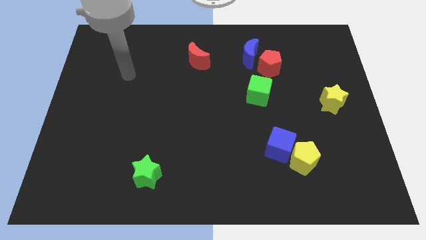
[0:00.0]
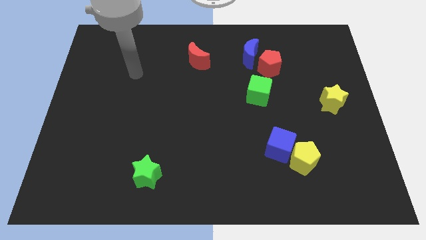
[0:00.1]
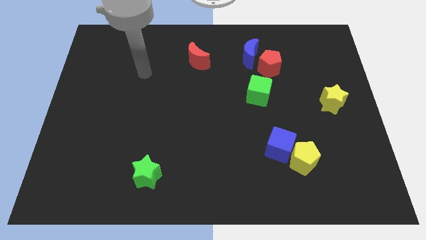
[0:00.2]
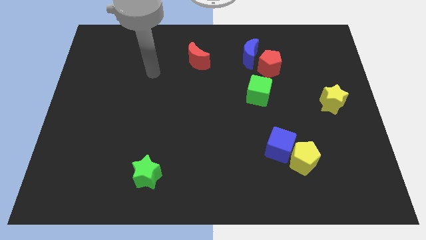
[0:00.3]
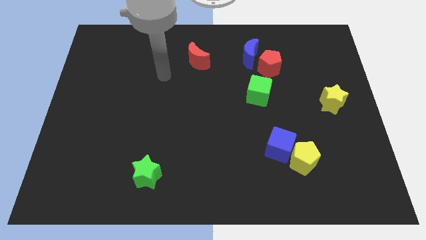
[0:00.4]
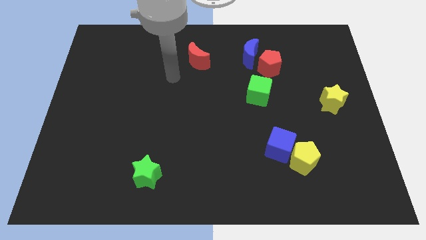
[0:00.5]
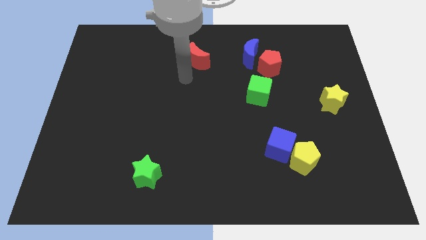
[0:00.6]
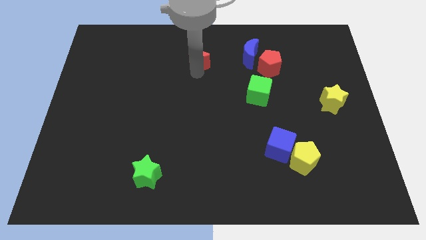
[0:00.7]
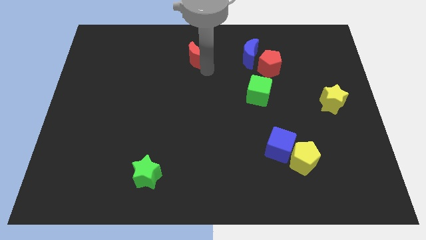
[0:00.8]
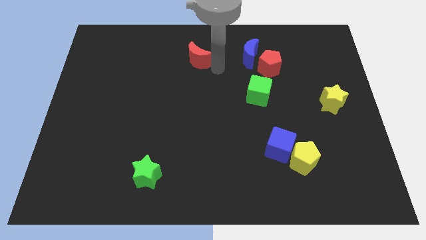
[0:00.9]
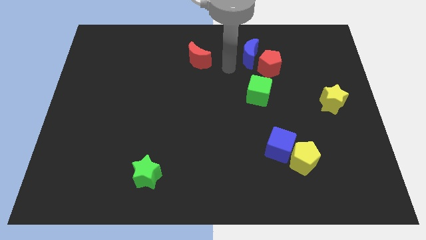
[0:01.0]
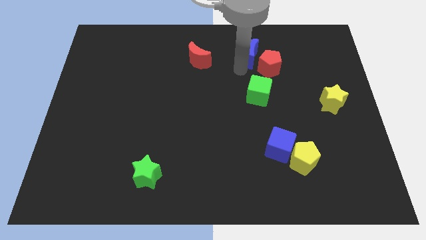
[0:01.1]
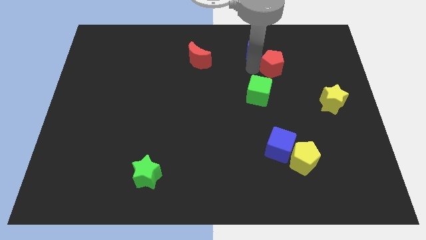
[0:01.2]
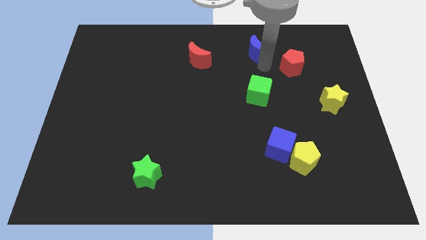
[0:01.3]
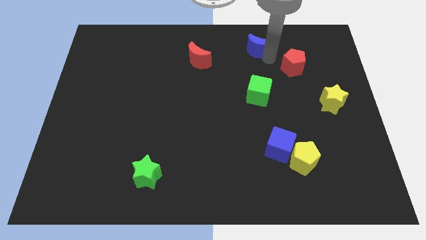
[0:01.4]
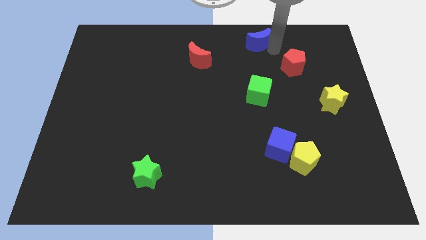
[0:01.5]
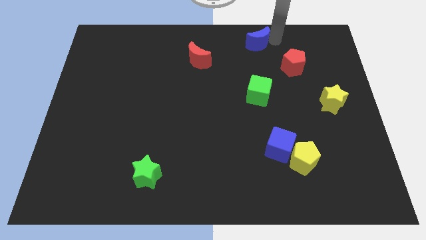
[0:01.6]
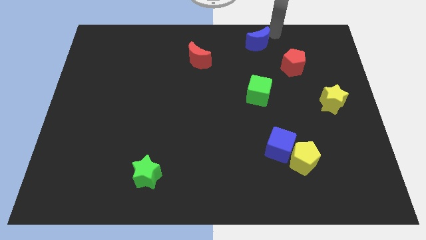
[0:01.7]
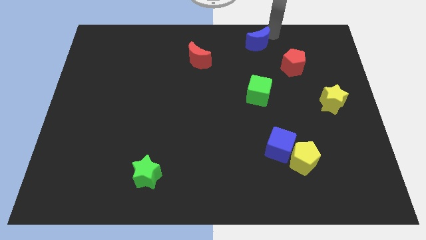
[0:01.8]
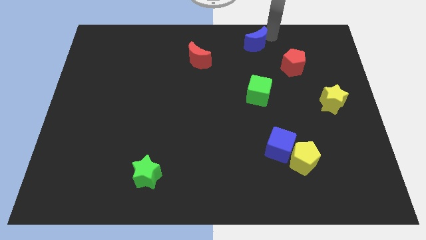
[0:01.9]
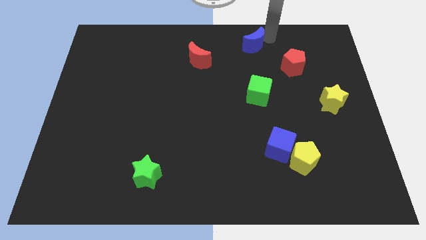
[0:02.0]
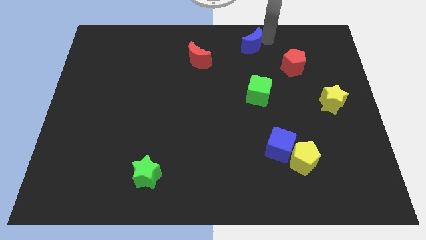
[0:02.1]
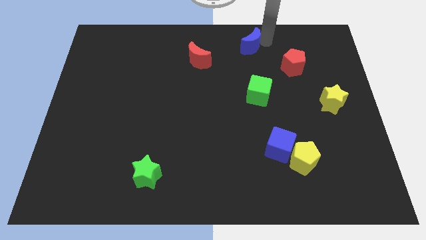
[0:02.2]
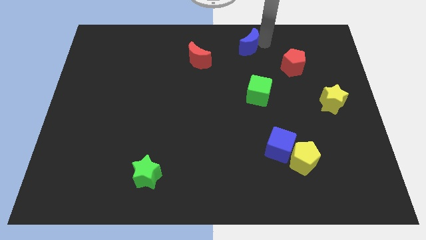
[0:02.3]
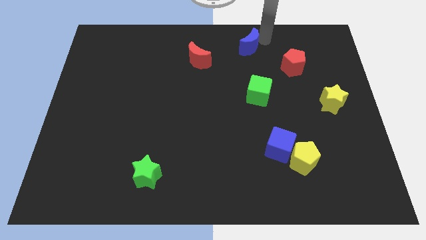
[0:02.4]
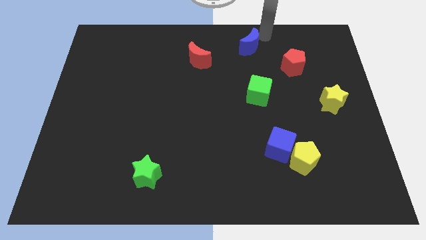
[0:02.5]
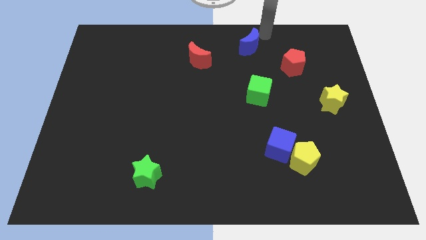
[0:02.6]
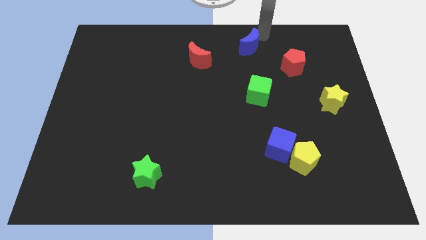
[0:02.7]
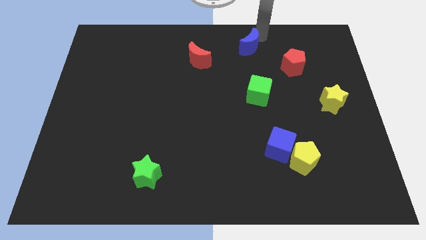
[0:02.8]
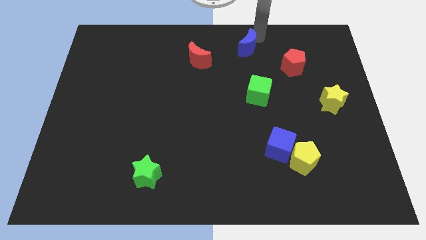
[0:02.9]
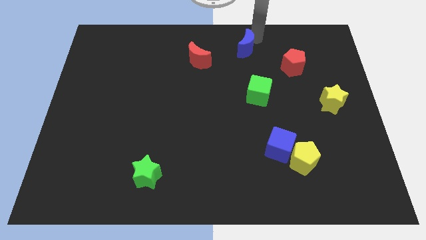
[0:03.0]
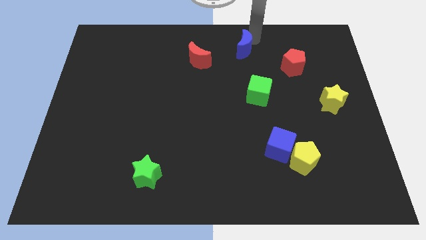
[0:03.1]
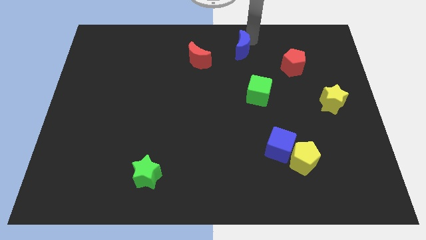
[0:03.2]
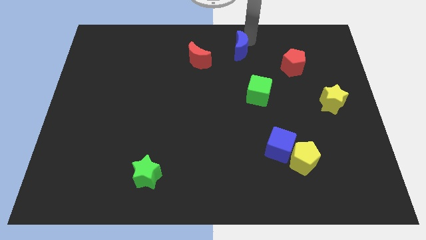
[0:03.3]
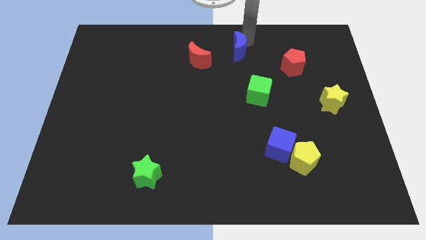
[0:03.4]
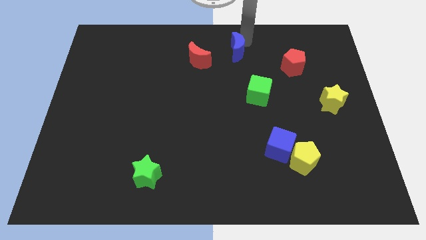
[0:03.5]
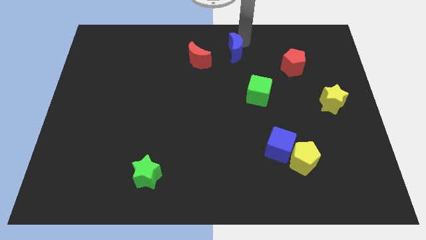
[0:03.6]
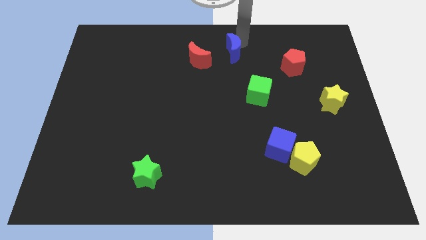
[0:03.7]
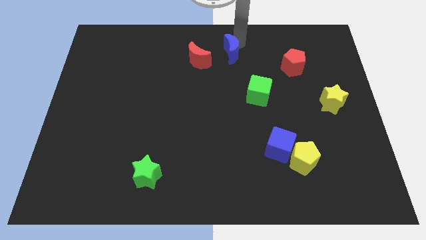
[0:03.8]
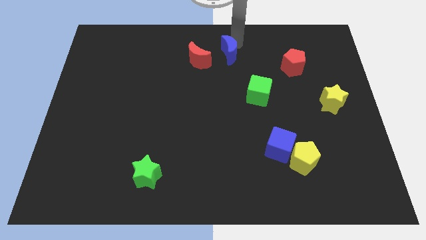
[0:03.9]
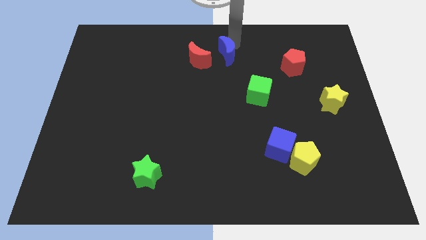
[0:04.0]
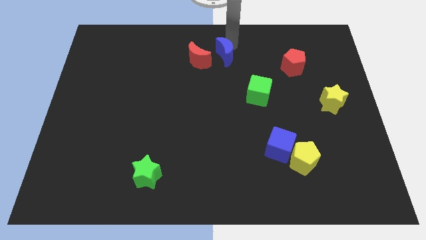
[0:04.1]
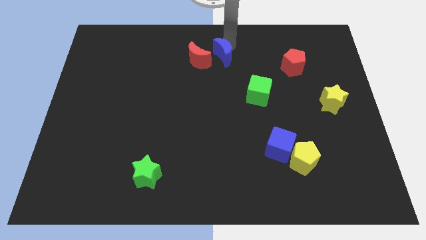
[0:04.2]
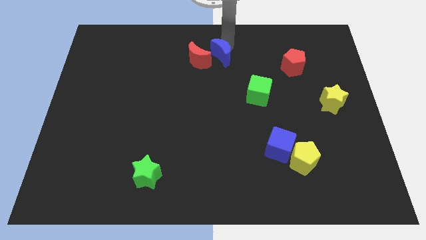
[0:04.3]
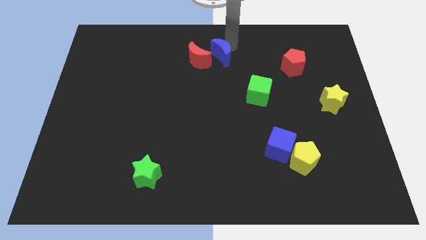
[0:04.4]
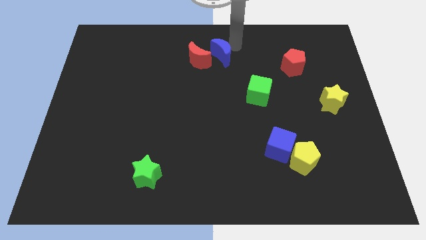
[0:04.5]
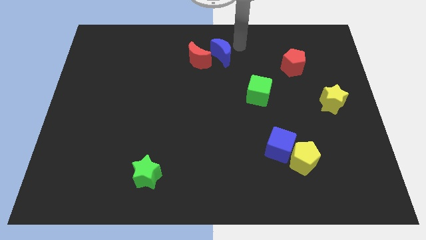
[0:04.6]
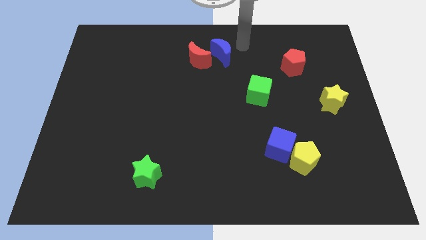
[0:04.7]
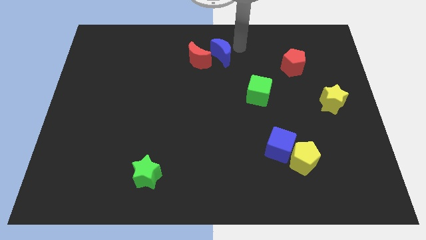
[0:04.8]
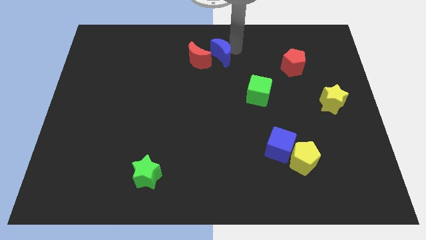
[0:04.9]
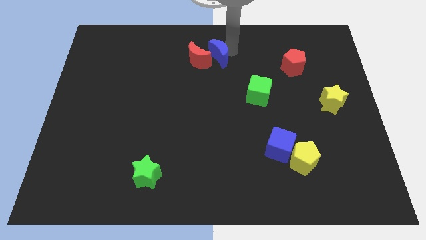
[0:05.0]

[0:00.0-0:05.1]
push the blue moon close to the red moon

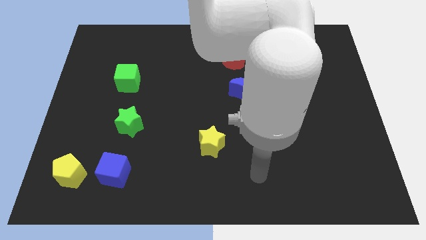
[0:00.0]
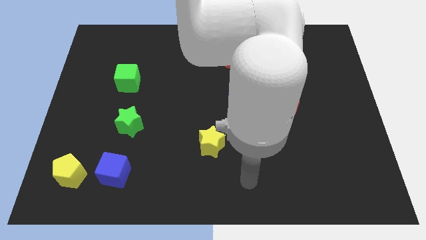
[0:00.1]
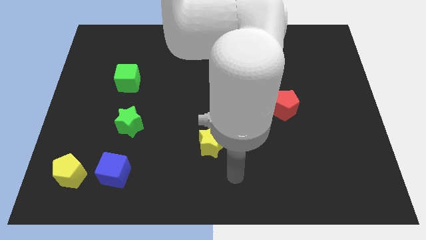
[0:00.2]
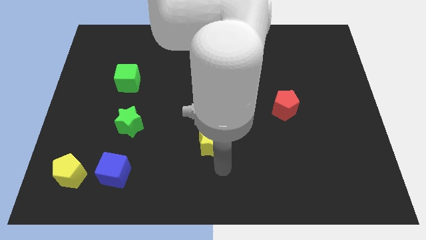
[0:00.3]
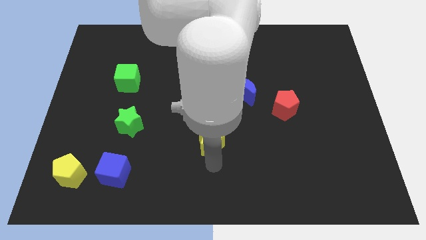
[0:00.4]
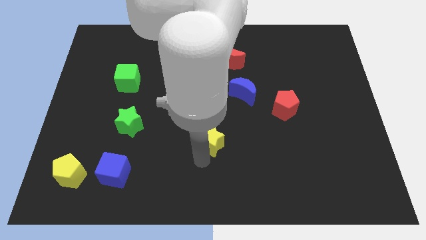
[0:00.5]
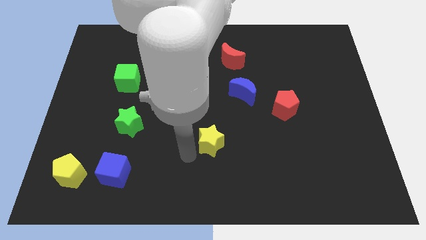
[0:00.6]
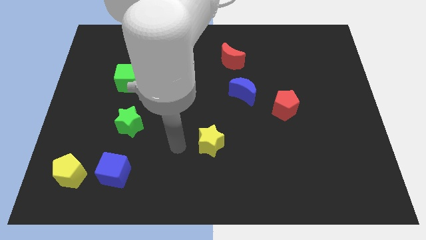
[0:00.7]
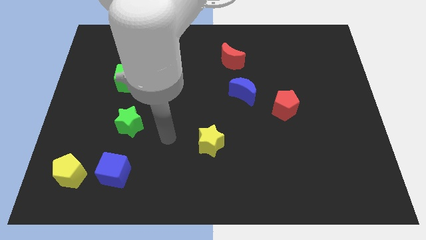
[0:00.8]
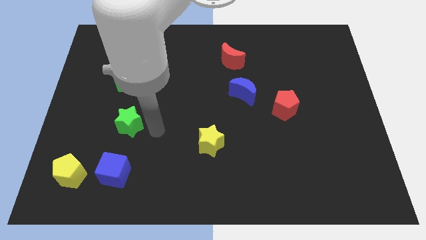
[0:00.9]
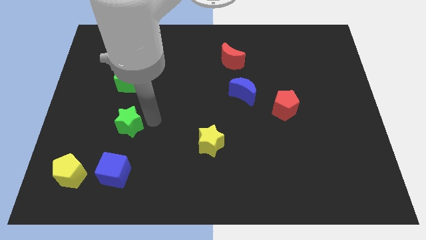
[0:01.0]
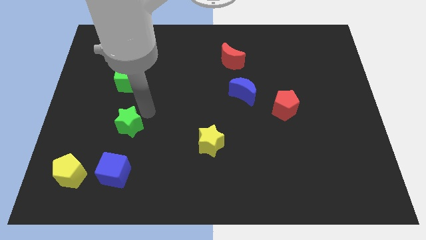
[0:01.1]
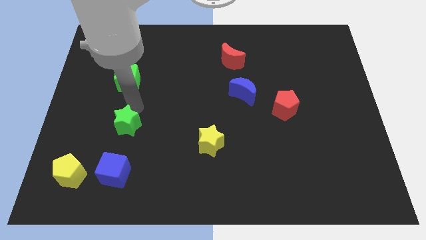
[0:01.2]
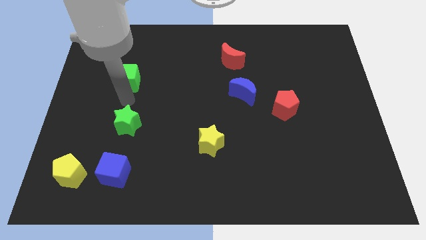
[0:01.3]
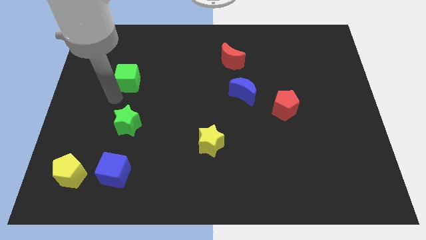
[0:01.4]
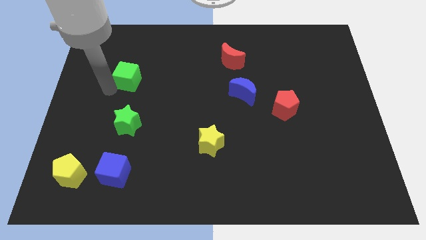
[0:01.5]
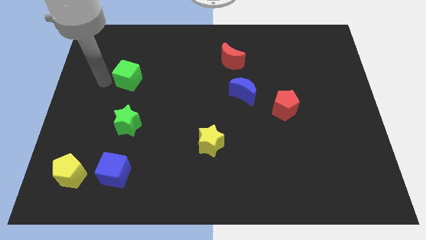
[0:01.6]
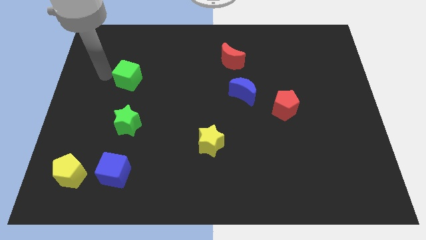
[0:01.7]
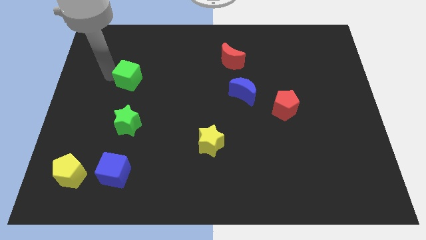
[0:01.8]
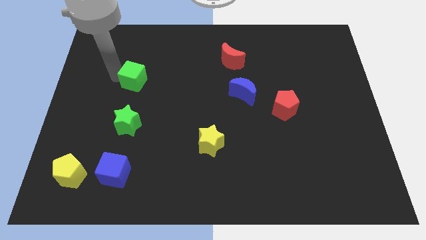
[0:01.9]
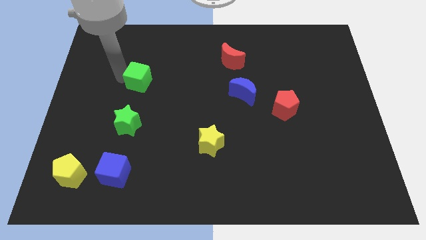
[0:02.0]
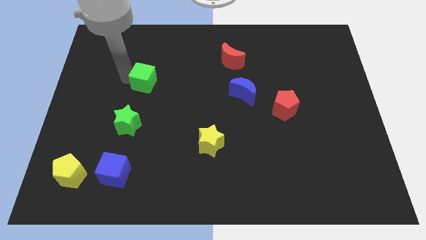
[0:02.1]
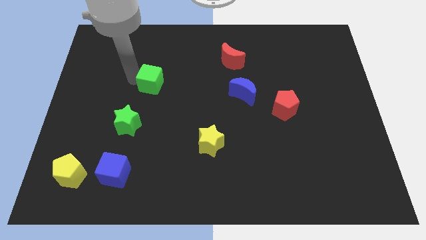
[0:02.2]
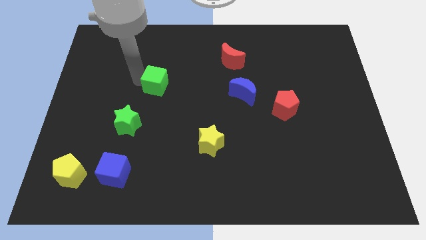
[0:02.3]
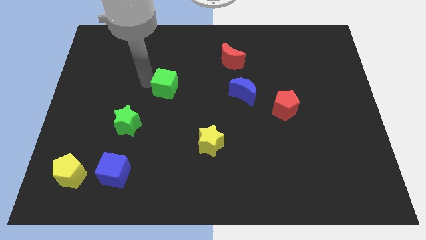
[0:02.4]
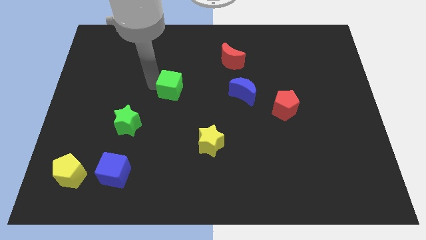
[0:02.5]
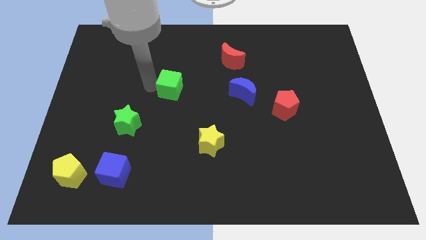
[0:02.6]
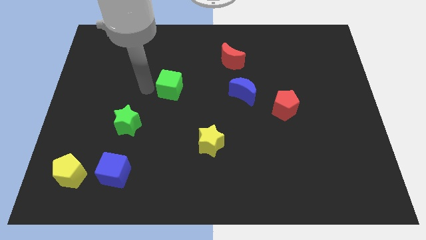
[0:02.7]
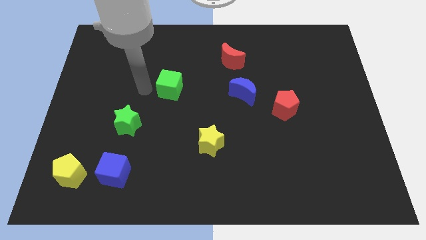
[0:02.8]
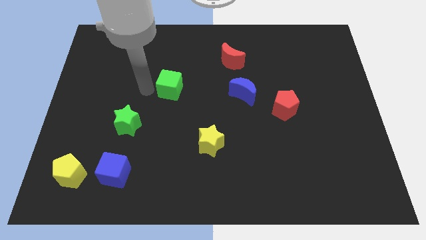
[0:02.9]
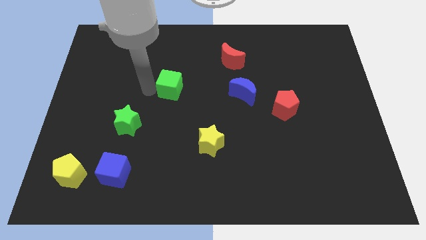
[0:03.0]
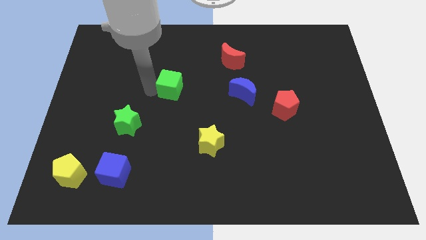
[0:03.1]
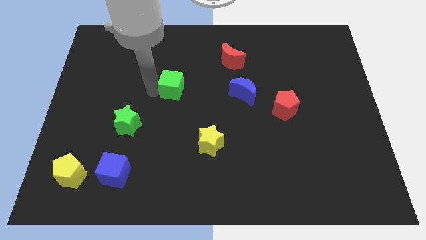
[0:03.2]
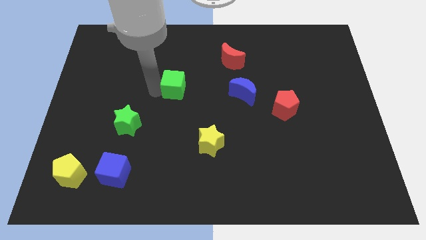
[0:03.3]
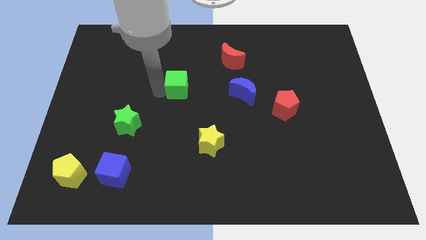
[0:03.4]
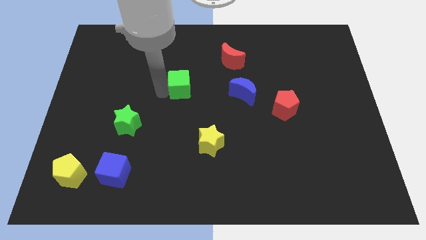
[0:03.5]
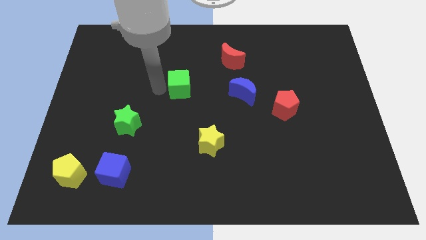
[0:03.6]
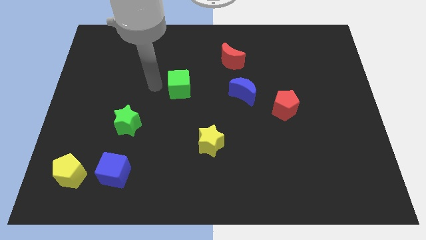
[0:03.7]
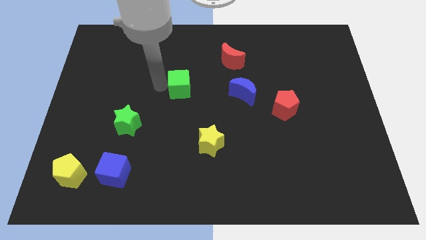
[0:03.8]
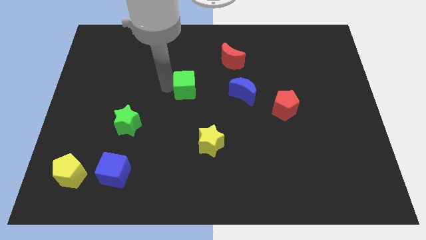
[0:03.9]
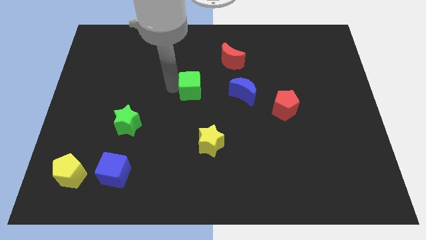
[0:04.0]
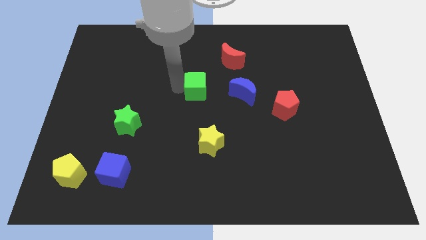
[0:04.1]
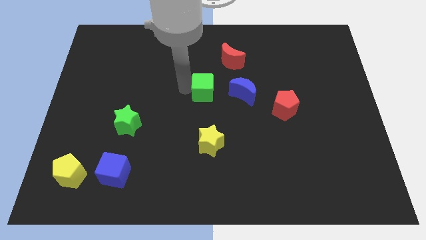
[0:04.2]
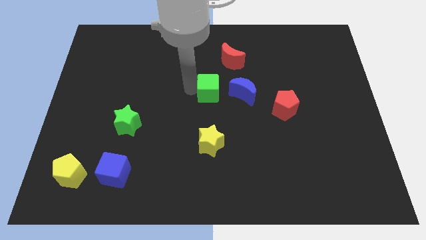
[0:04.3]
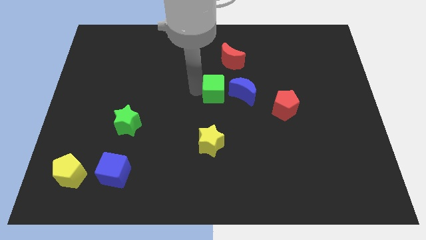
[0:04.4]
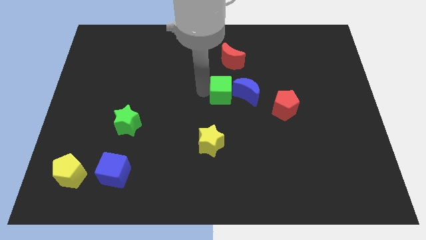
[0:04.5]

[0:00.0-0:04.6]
move the green cube next to the blue moon
